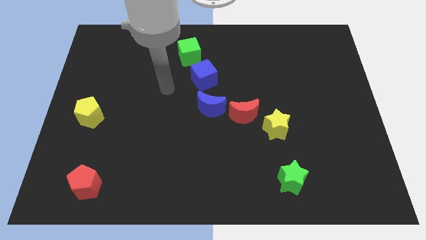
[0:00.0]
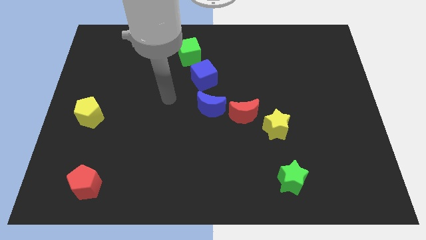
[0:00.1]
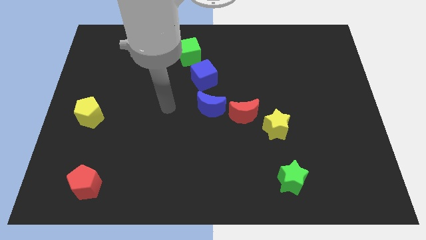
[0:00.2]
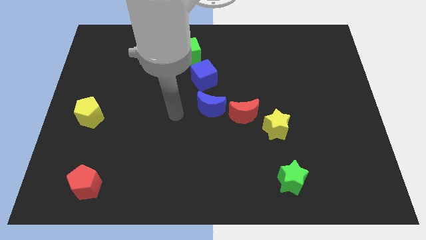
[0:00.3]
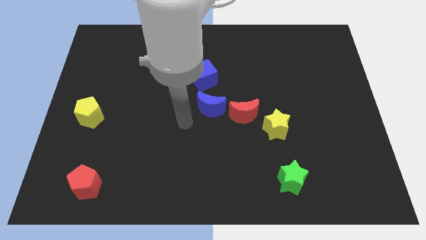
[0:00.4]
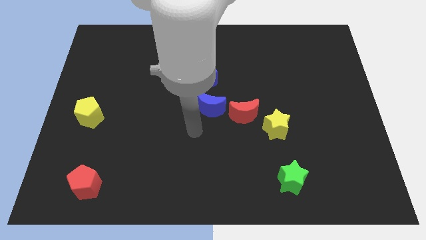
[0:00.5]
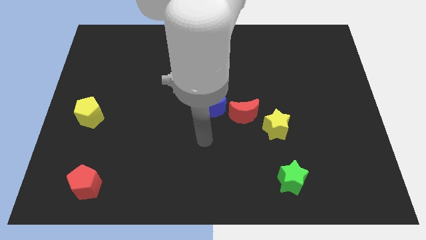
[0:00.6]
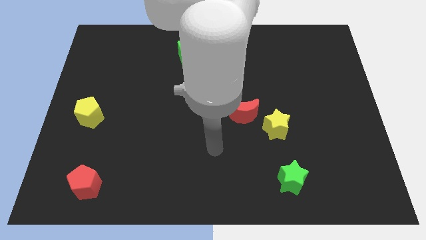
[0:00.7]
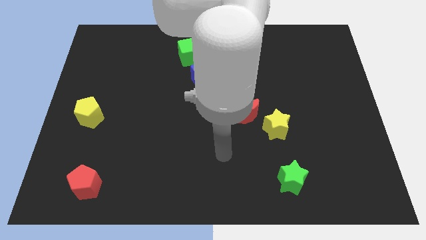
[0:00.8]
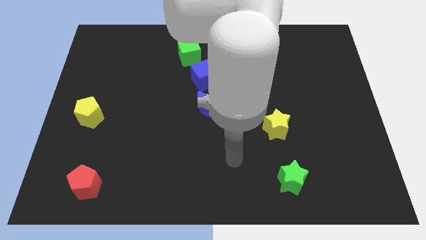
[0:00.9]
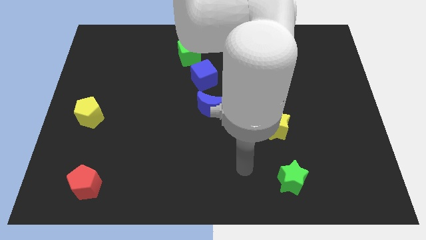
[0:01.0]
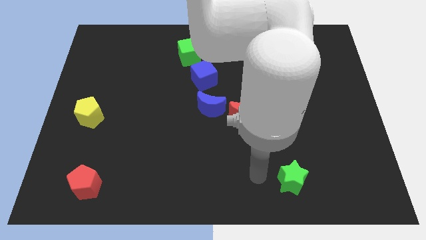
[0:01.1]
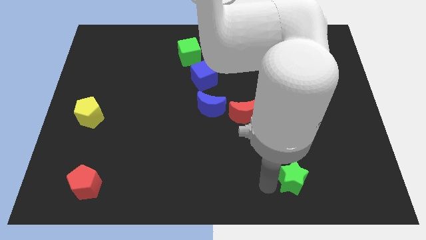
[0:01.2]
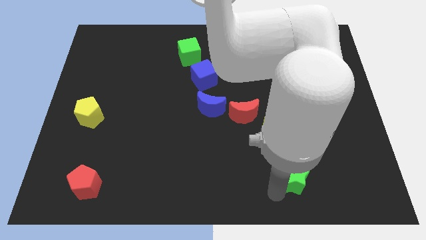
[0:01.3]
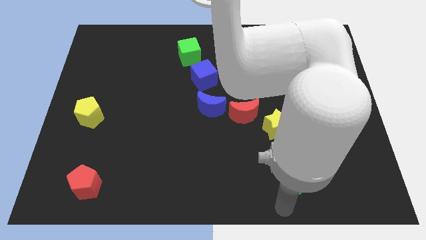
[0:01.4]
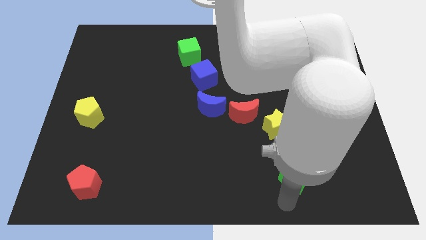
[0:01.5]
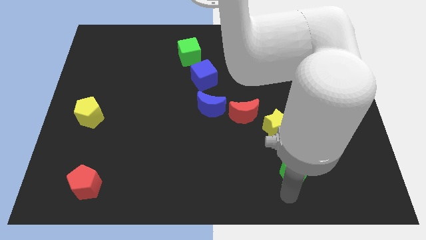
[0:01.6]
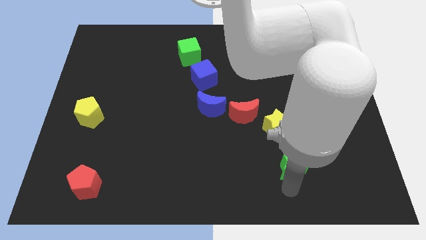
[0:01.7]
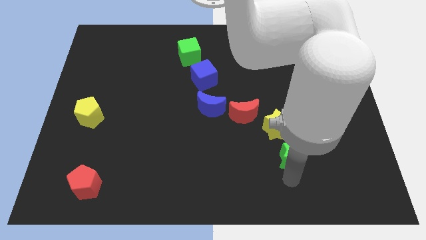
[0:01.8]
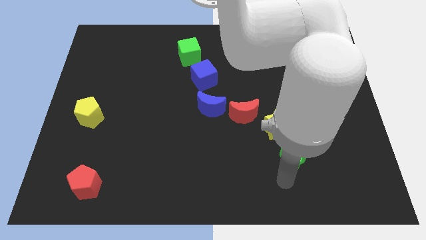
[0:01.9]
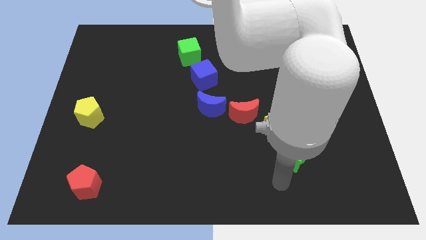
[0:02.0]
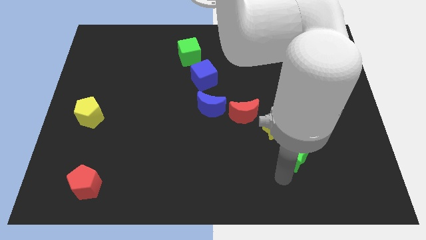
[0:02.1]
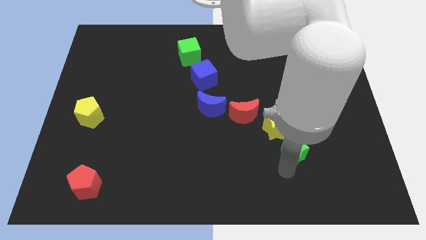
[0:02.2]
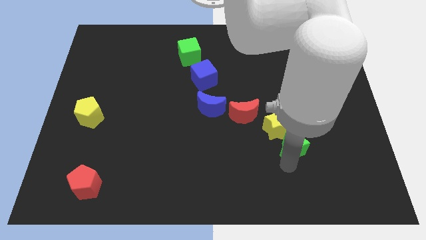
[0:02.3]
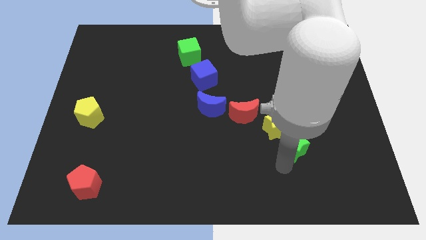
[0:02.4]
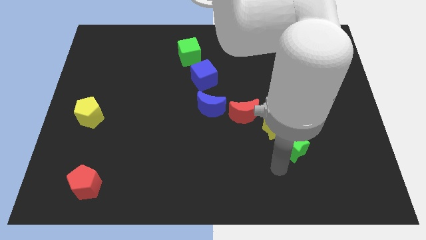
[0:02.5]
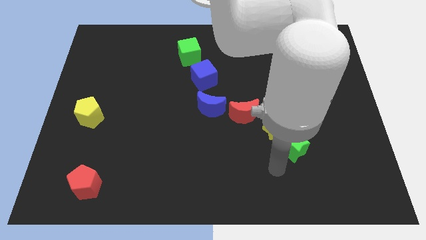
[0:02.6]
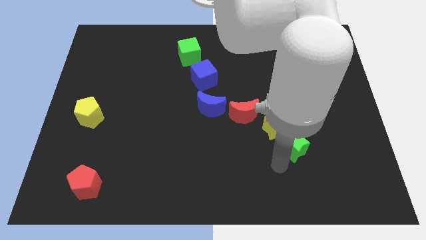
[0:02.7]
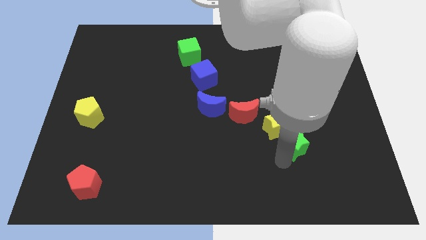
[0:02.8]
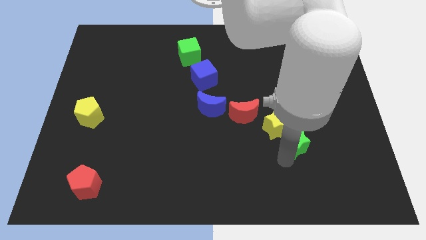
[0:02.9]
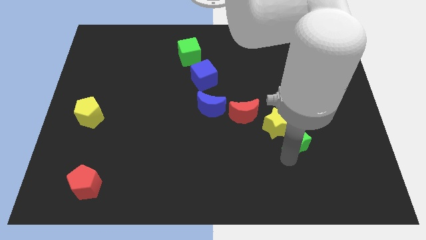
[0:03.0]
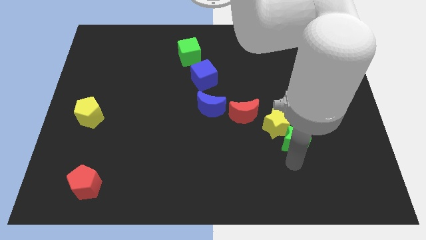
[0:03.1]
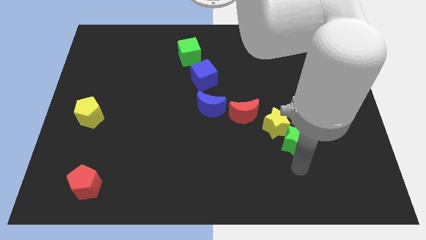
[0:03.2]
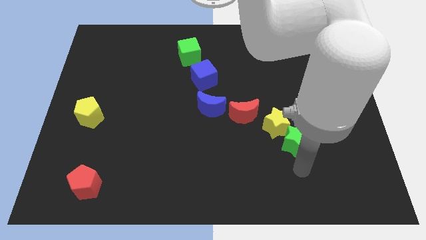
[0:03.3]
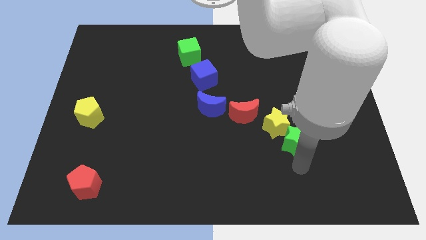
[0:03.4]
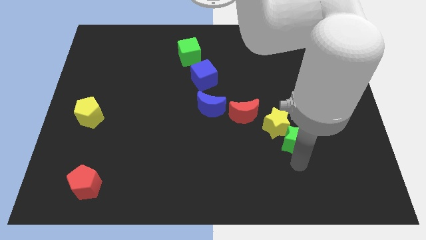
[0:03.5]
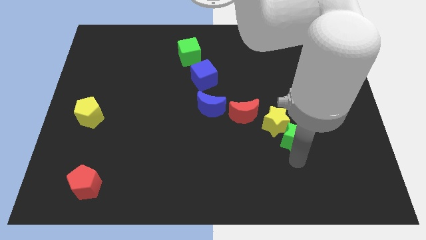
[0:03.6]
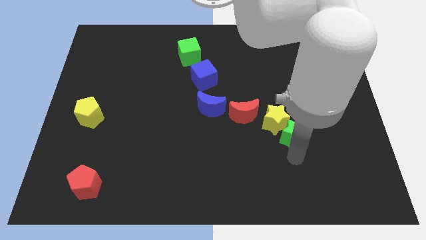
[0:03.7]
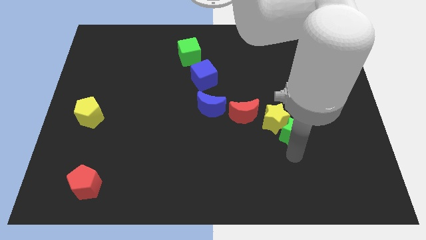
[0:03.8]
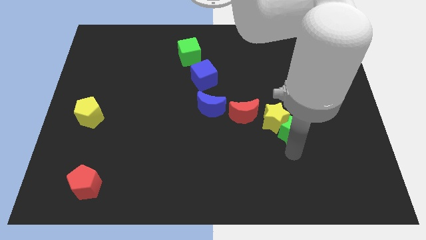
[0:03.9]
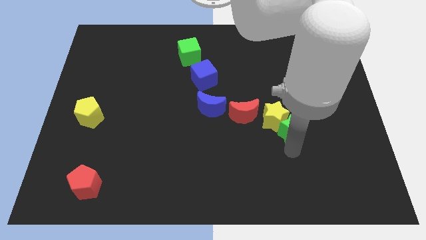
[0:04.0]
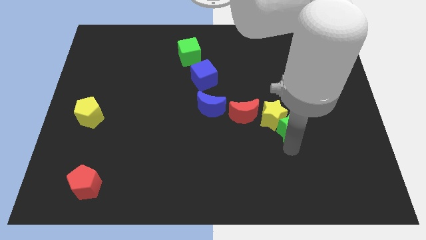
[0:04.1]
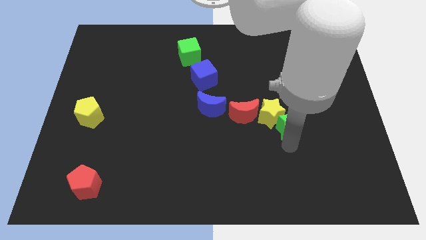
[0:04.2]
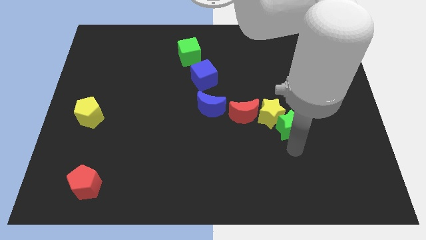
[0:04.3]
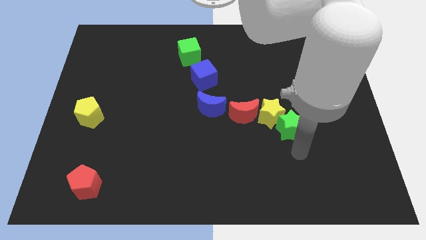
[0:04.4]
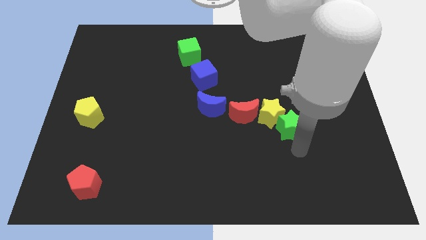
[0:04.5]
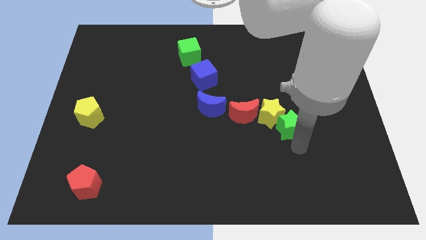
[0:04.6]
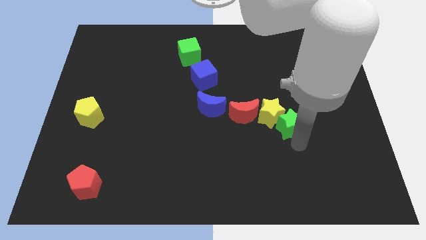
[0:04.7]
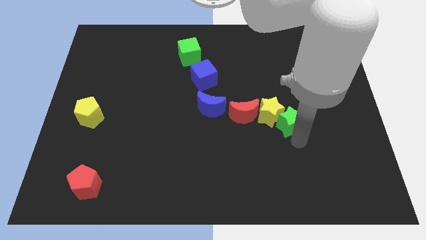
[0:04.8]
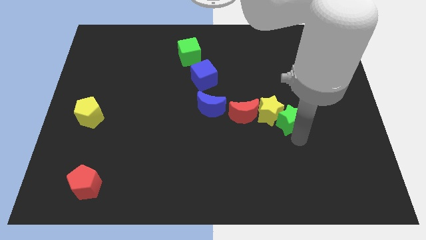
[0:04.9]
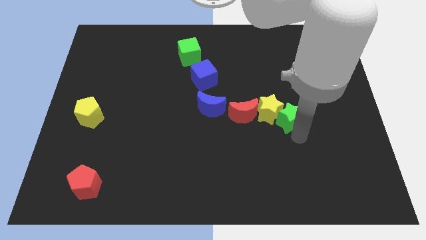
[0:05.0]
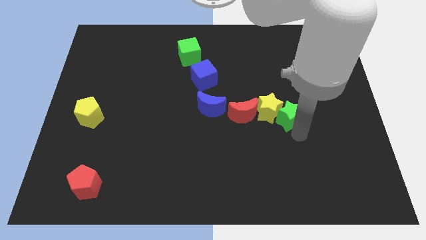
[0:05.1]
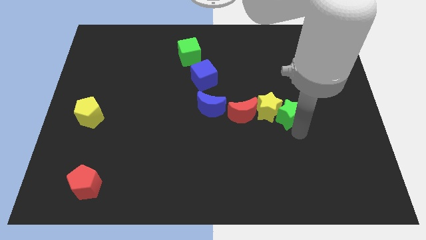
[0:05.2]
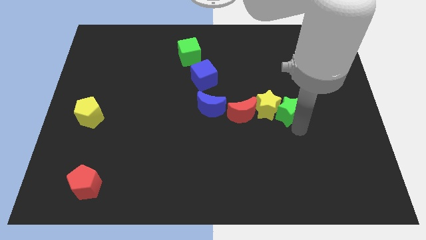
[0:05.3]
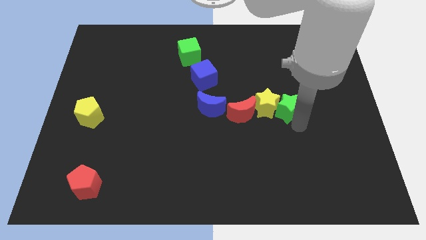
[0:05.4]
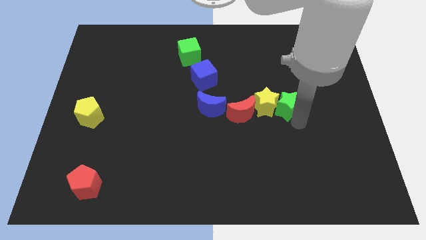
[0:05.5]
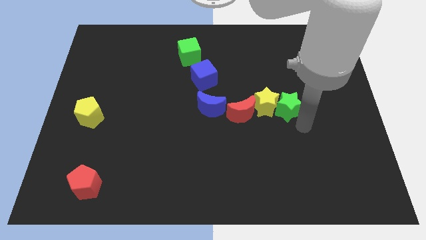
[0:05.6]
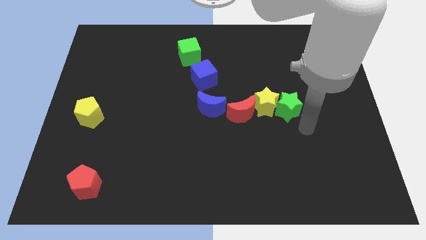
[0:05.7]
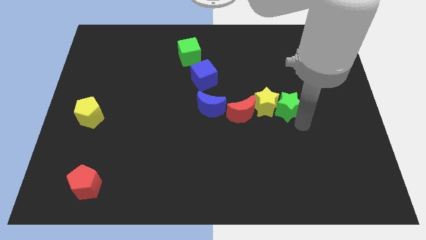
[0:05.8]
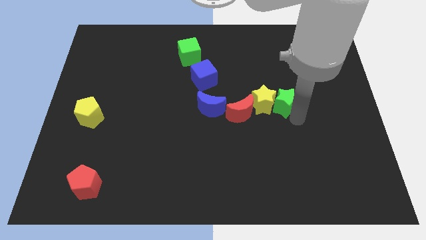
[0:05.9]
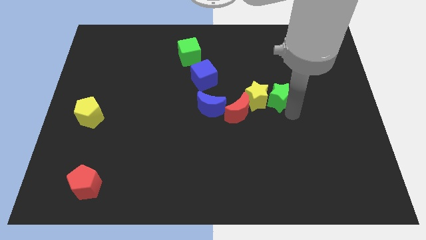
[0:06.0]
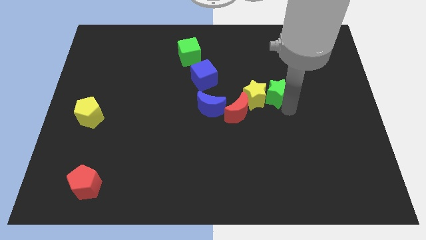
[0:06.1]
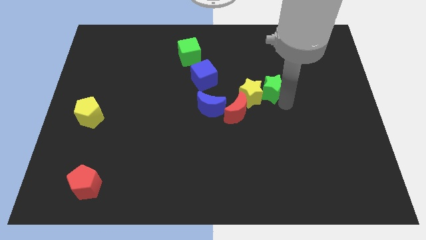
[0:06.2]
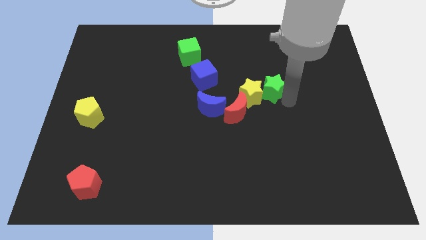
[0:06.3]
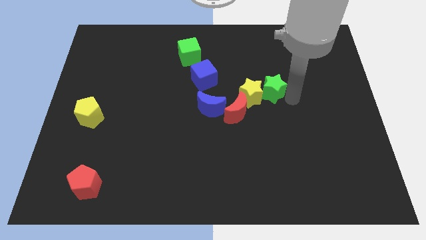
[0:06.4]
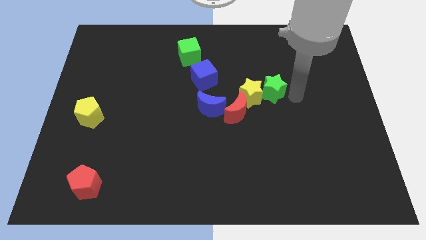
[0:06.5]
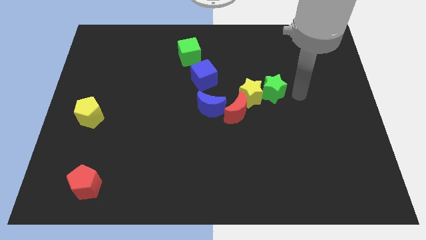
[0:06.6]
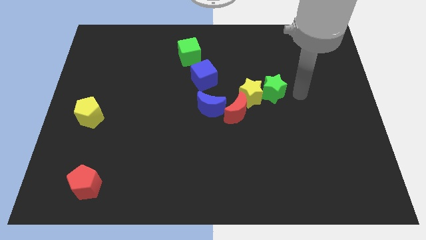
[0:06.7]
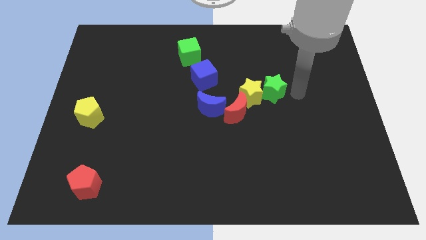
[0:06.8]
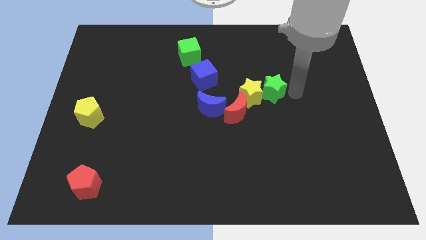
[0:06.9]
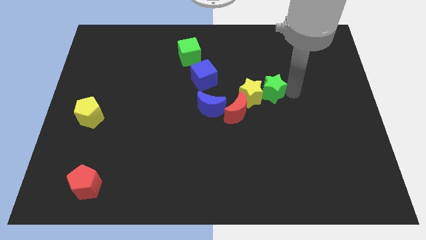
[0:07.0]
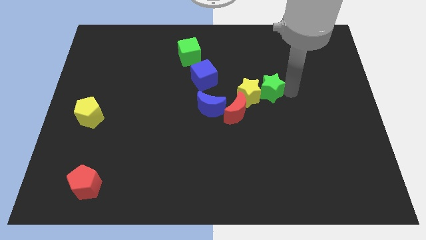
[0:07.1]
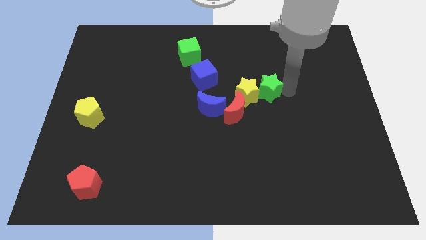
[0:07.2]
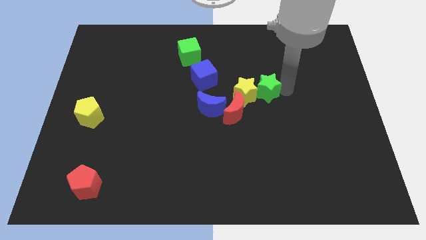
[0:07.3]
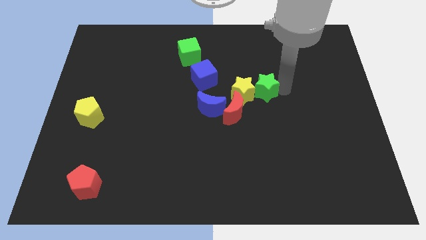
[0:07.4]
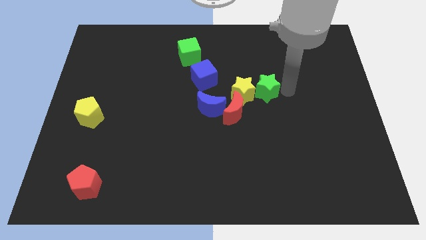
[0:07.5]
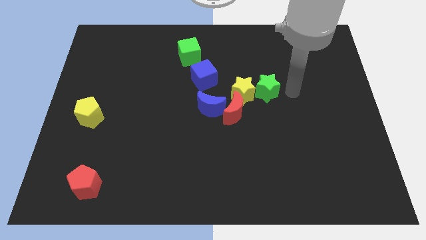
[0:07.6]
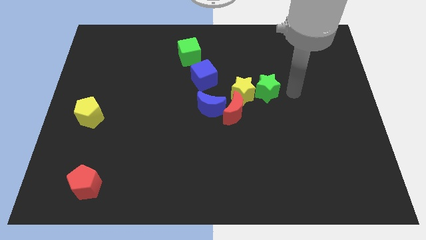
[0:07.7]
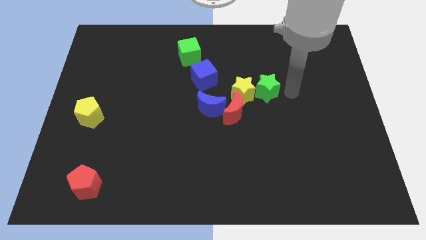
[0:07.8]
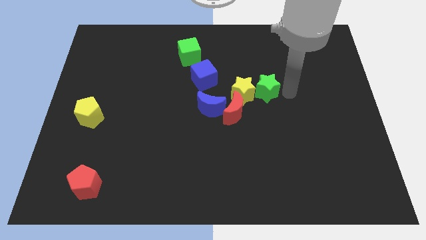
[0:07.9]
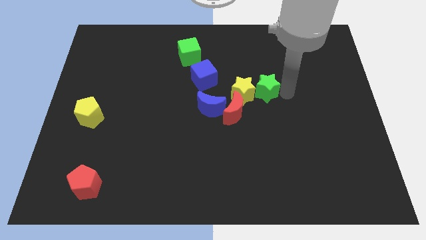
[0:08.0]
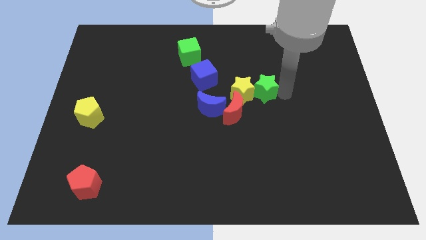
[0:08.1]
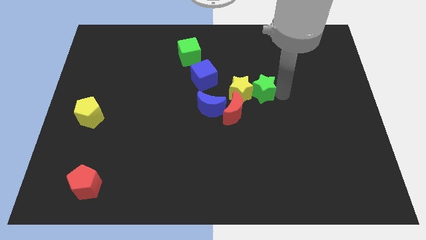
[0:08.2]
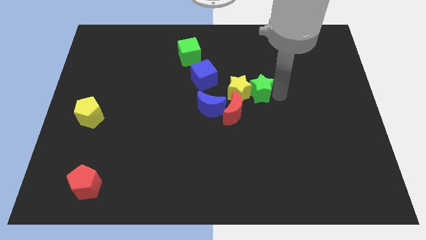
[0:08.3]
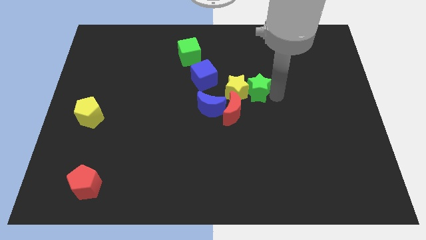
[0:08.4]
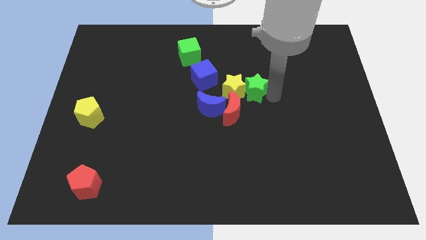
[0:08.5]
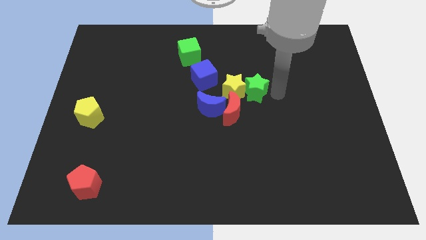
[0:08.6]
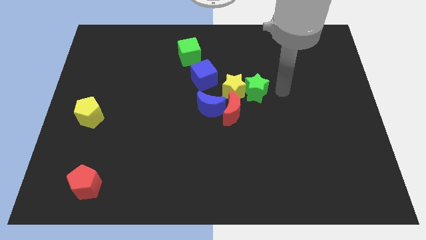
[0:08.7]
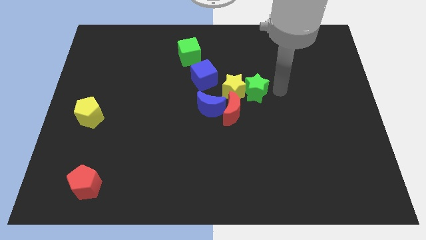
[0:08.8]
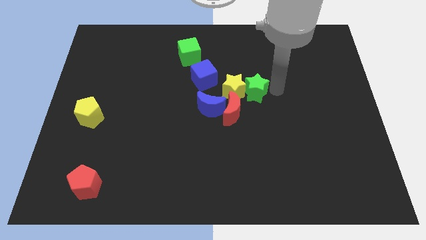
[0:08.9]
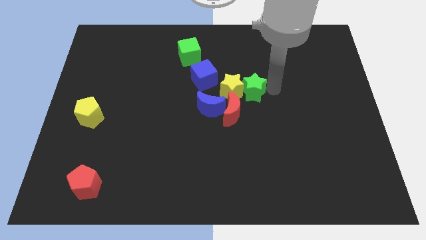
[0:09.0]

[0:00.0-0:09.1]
slide the green star to the top right side of the blue moon
